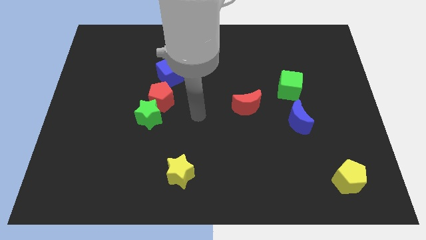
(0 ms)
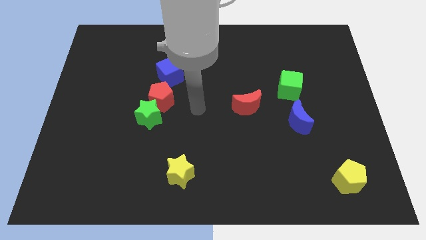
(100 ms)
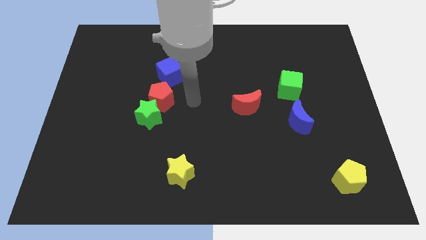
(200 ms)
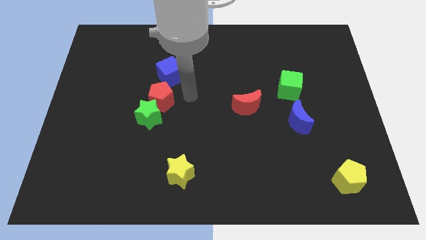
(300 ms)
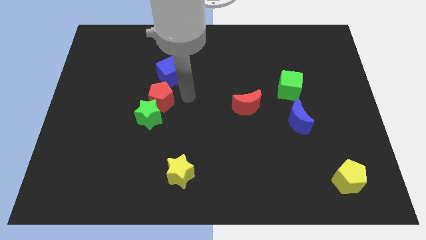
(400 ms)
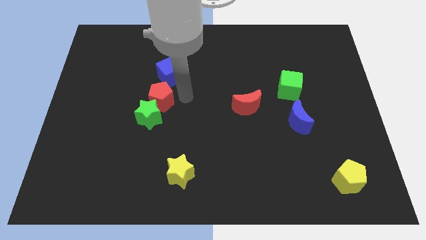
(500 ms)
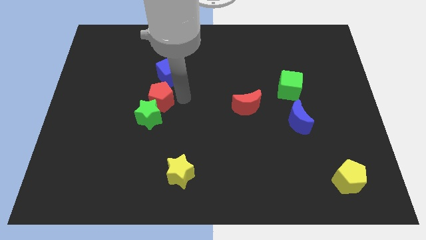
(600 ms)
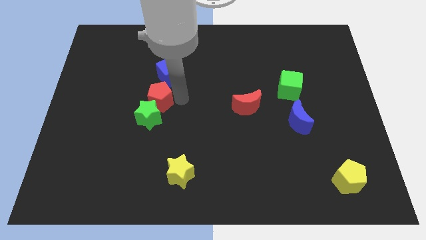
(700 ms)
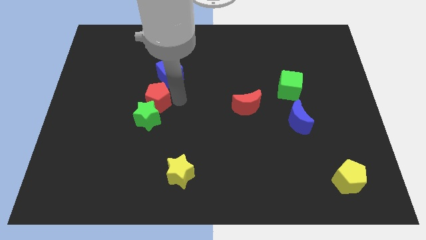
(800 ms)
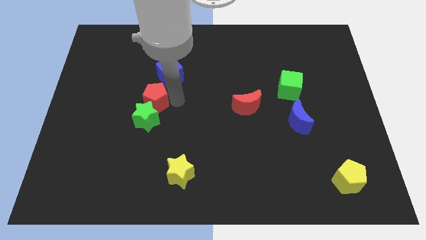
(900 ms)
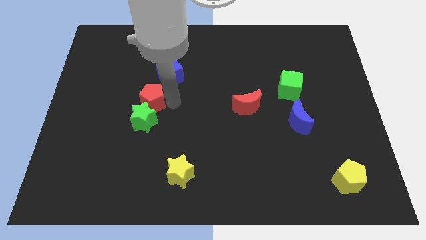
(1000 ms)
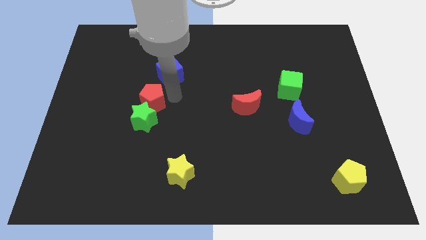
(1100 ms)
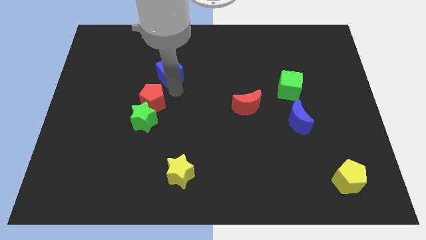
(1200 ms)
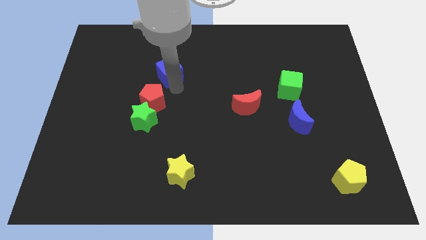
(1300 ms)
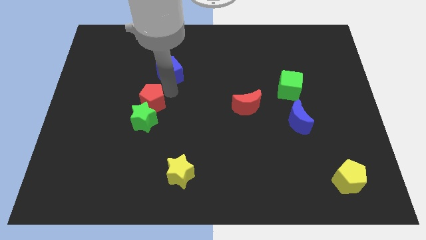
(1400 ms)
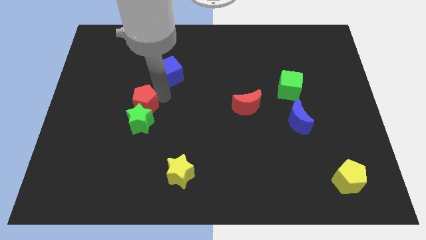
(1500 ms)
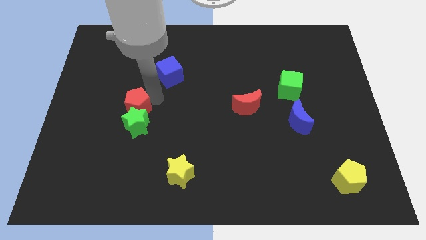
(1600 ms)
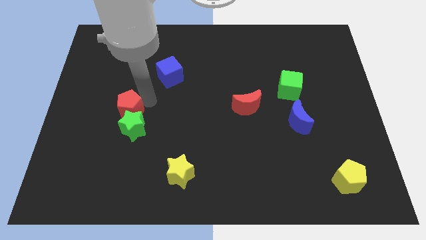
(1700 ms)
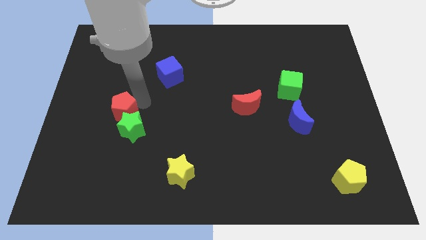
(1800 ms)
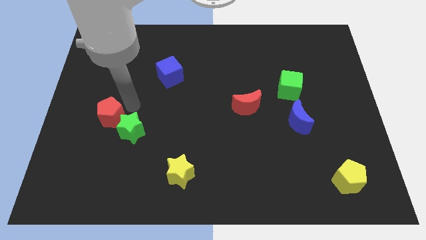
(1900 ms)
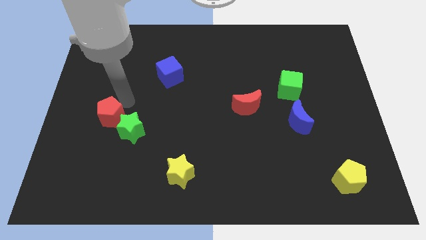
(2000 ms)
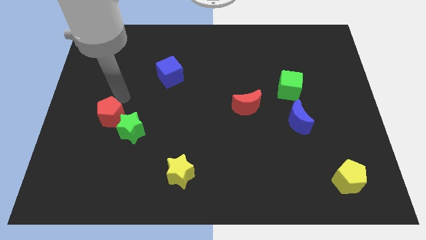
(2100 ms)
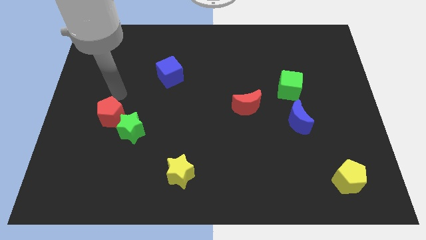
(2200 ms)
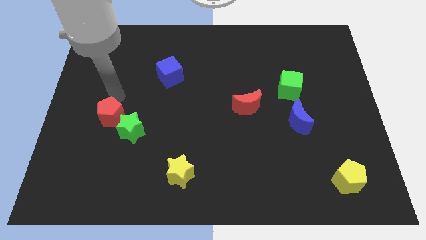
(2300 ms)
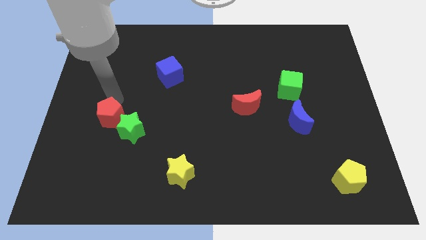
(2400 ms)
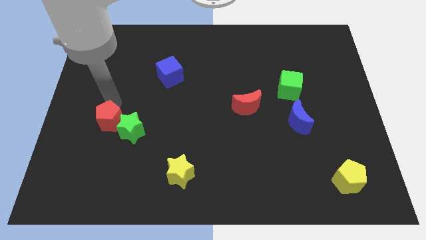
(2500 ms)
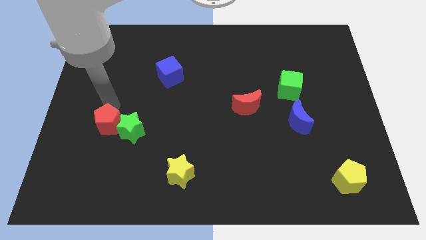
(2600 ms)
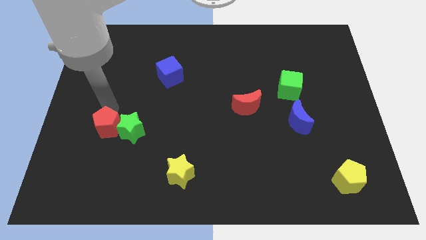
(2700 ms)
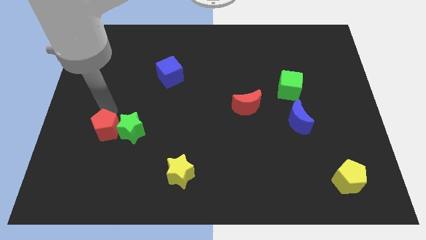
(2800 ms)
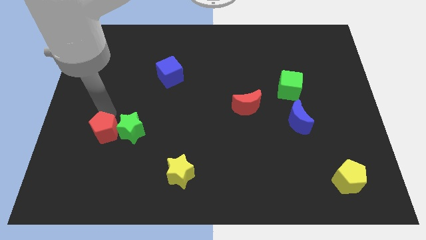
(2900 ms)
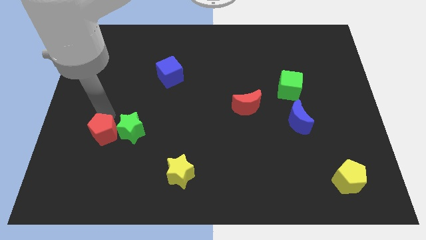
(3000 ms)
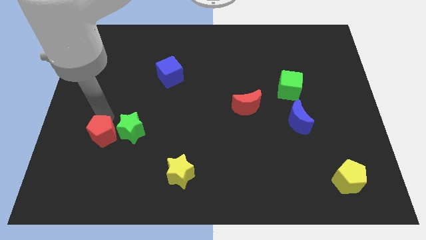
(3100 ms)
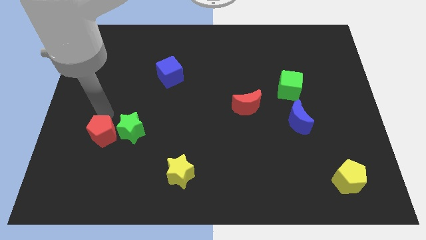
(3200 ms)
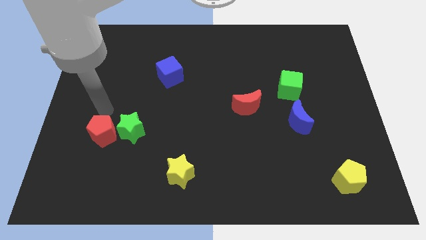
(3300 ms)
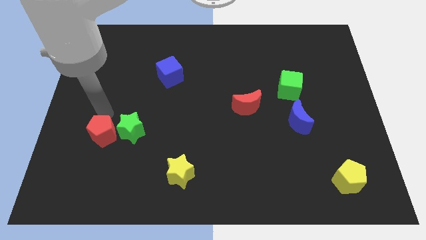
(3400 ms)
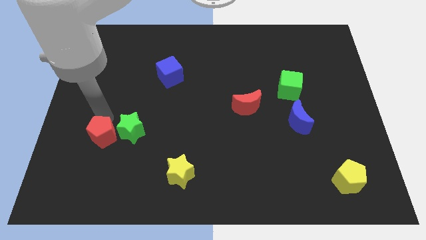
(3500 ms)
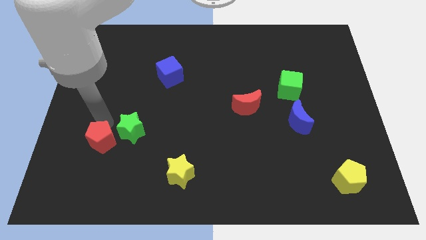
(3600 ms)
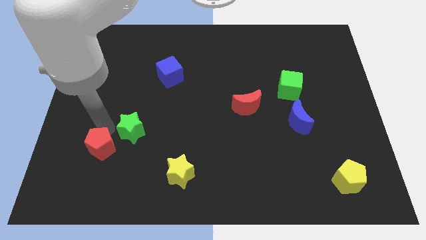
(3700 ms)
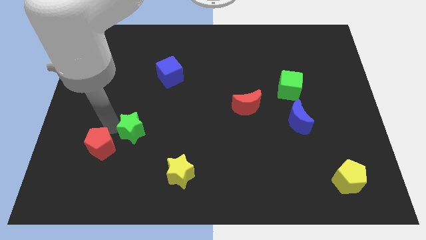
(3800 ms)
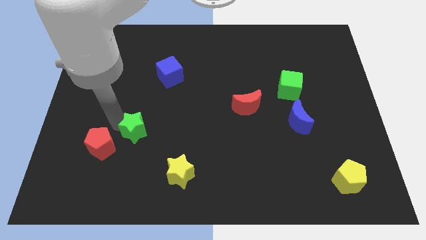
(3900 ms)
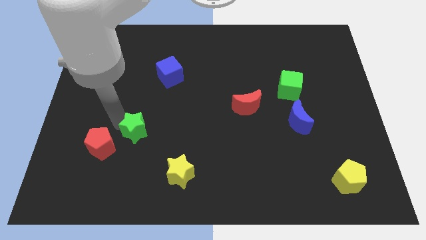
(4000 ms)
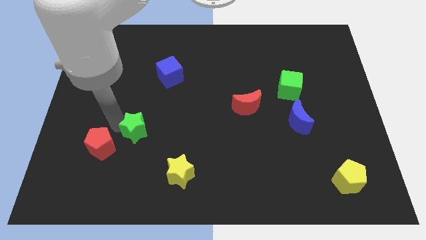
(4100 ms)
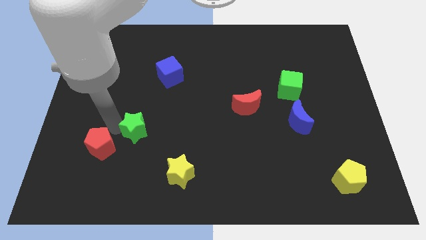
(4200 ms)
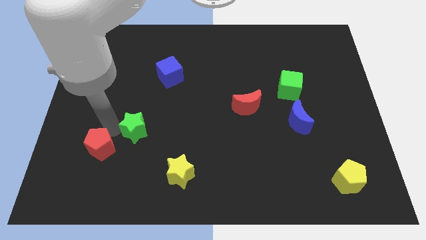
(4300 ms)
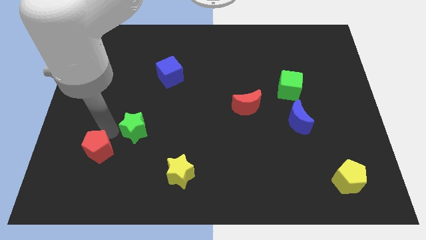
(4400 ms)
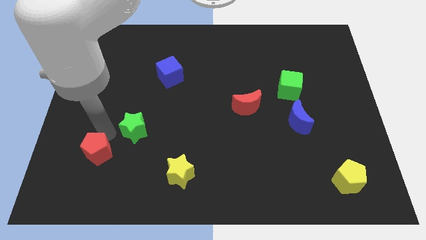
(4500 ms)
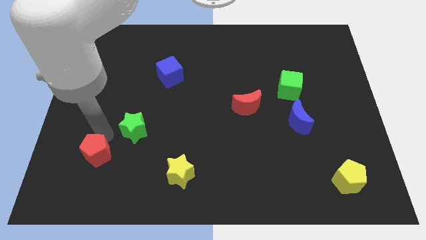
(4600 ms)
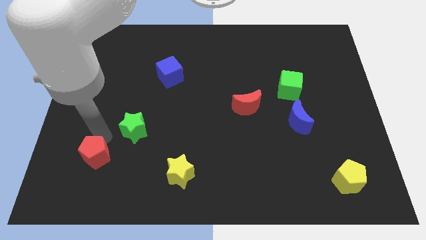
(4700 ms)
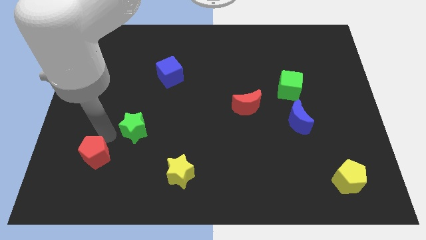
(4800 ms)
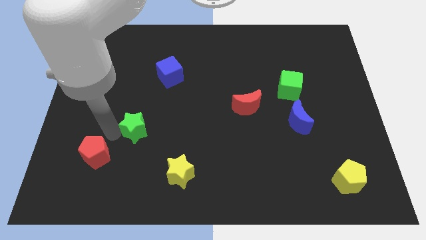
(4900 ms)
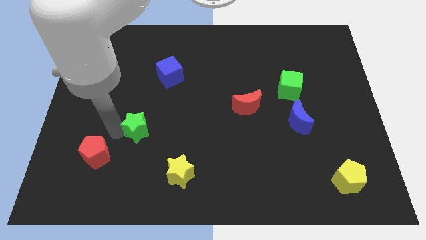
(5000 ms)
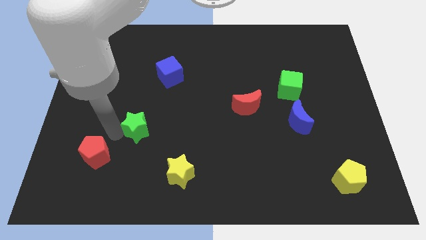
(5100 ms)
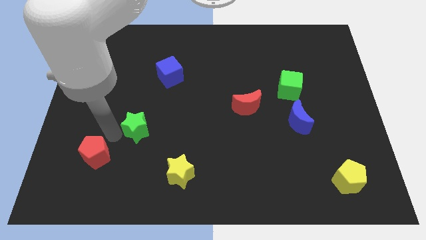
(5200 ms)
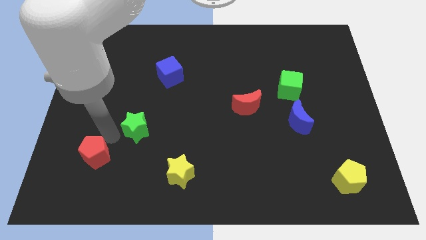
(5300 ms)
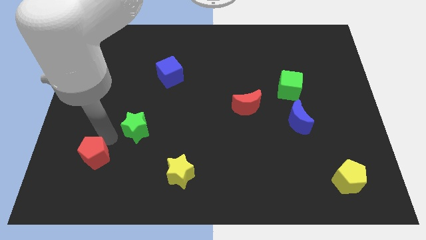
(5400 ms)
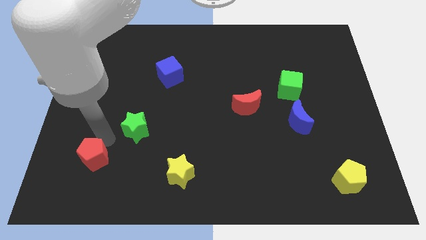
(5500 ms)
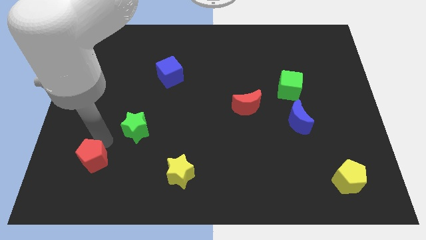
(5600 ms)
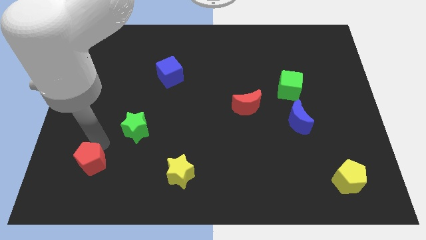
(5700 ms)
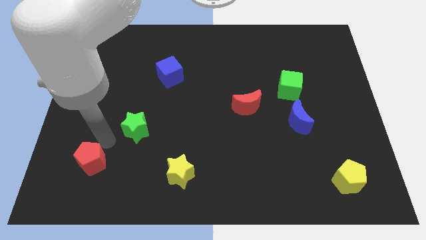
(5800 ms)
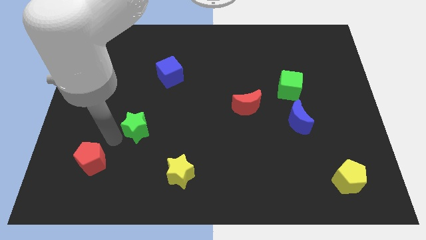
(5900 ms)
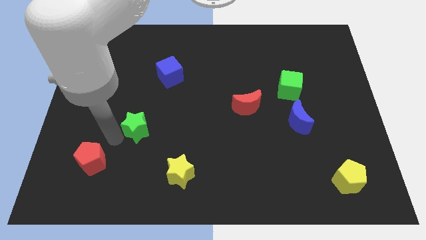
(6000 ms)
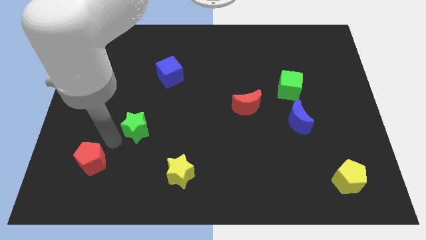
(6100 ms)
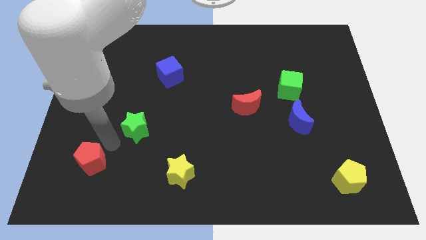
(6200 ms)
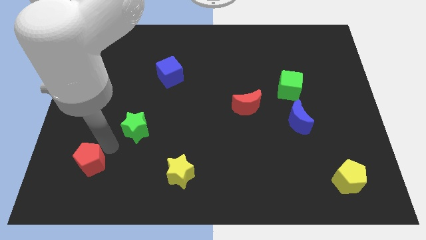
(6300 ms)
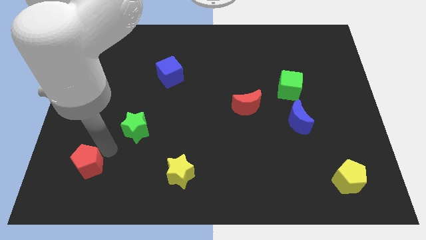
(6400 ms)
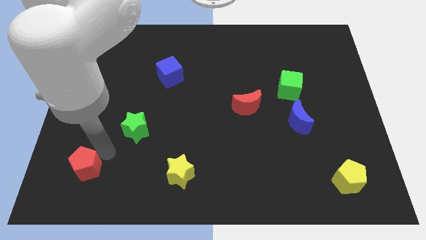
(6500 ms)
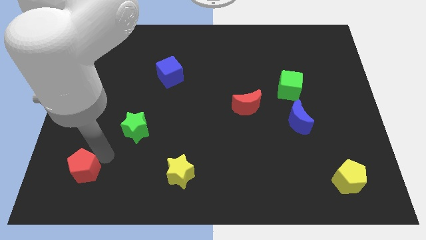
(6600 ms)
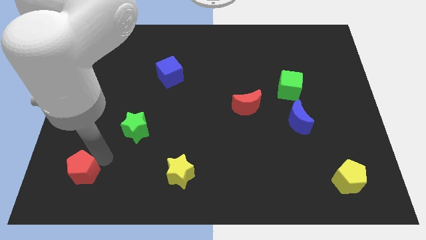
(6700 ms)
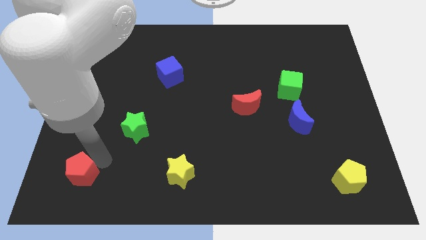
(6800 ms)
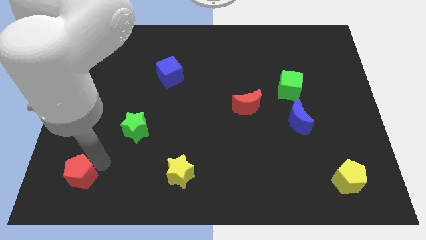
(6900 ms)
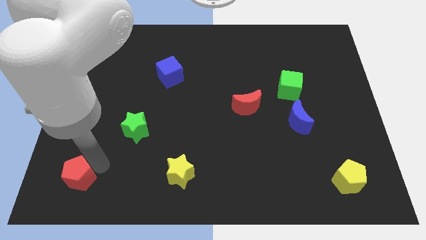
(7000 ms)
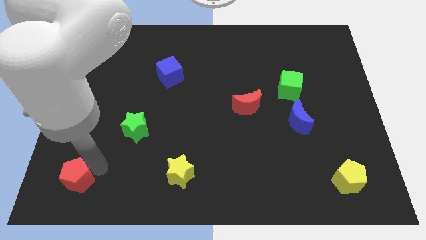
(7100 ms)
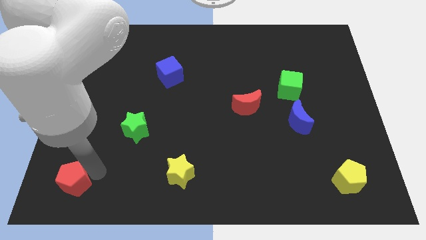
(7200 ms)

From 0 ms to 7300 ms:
slide the red pentagon to the bottom left

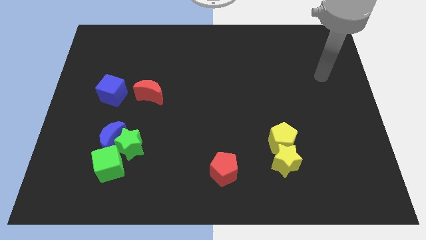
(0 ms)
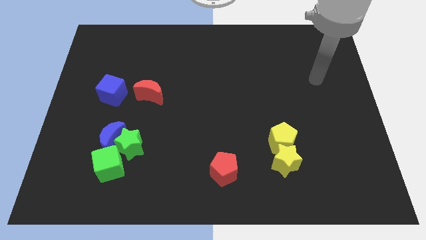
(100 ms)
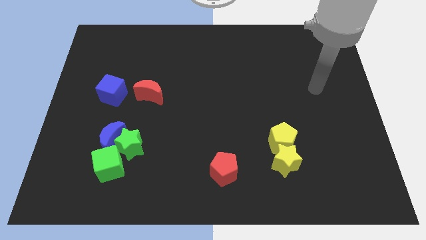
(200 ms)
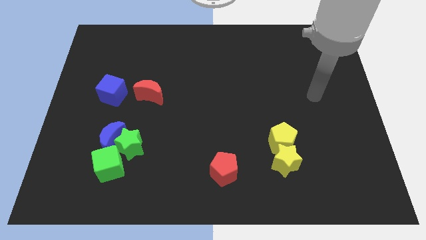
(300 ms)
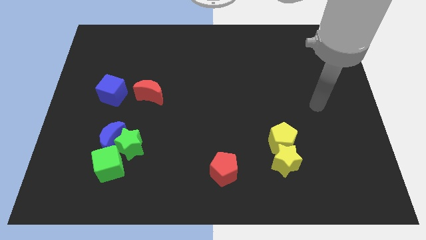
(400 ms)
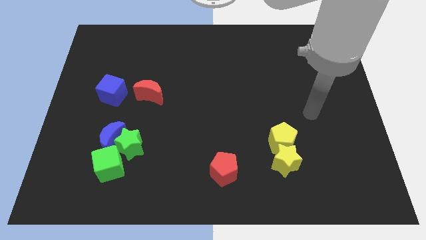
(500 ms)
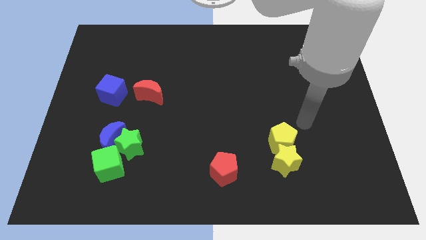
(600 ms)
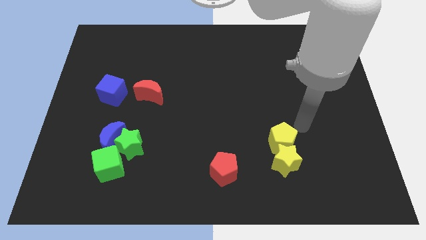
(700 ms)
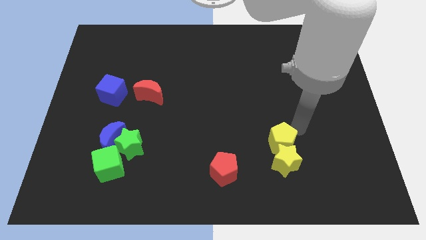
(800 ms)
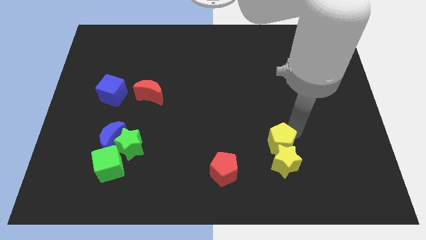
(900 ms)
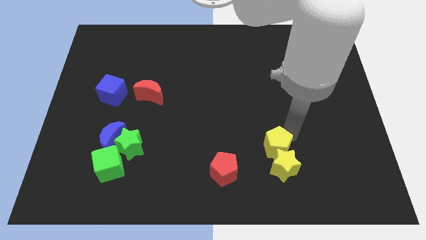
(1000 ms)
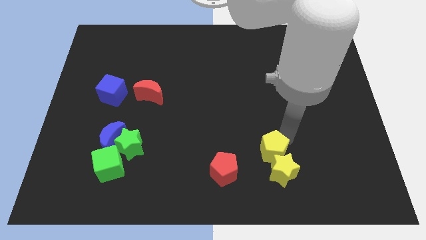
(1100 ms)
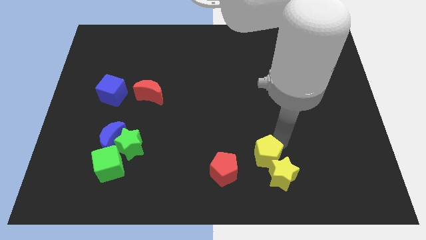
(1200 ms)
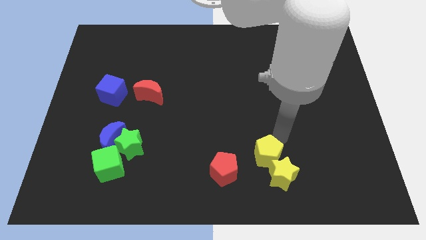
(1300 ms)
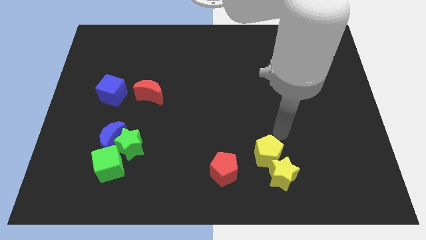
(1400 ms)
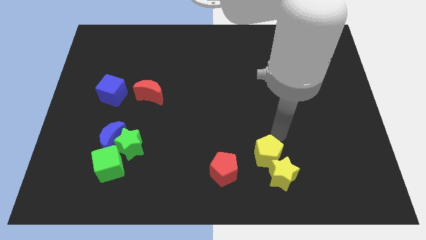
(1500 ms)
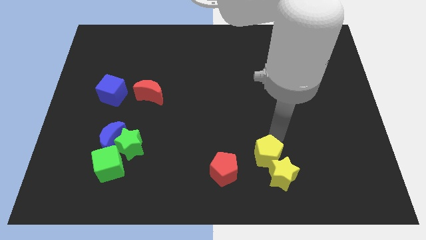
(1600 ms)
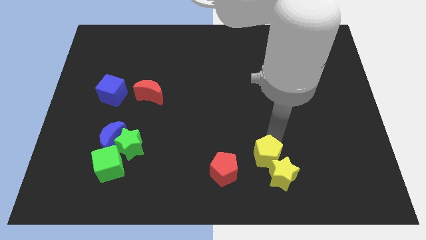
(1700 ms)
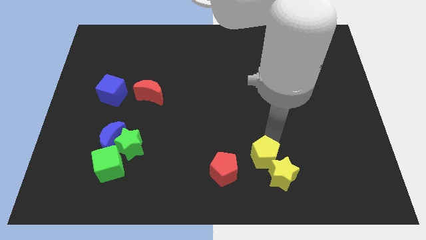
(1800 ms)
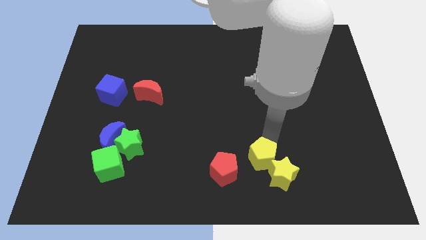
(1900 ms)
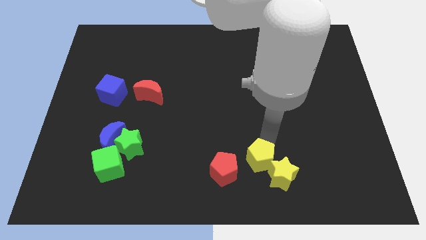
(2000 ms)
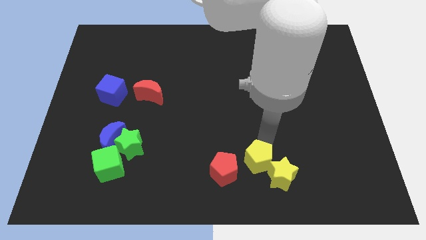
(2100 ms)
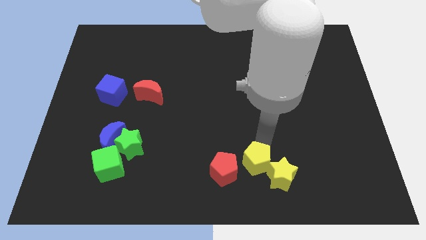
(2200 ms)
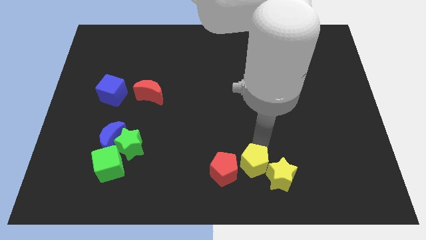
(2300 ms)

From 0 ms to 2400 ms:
slide the yellow pentagon to the bottom
